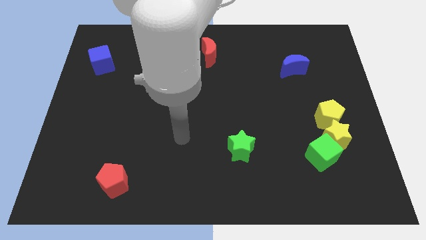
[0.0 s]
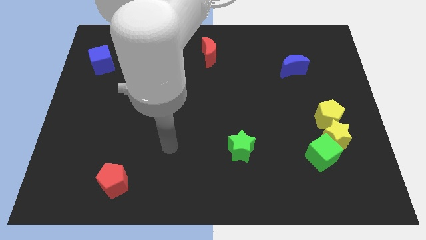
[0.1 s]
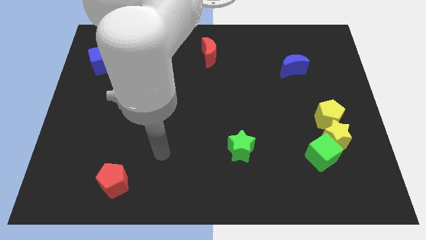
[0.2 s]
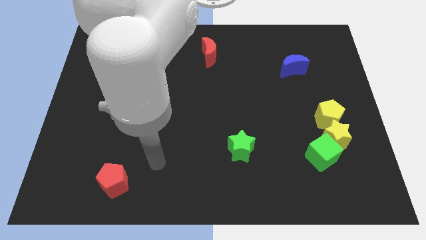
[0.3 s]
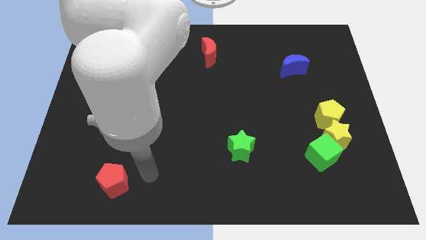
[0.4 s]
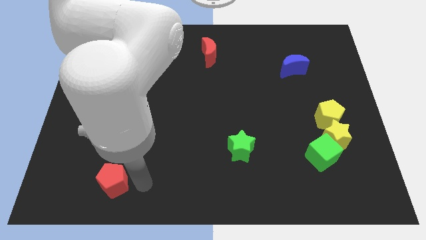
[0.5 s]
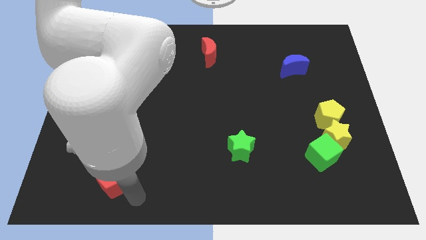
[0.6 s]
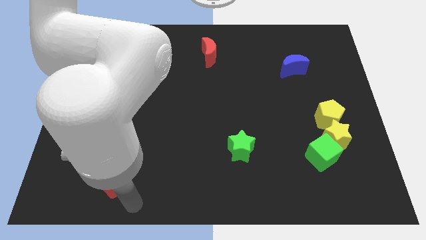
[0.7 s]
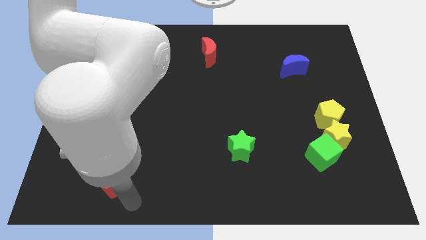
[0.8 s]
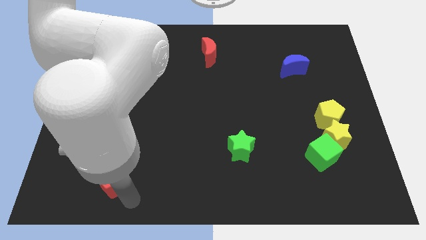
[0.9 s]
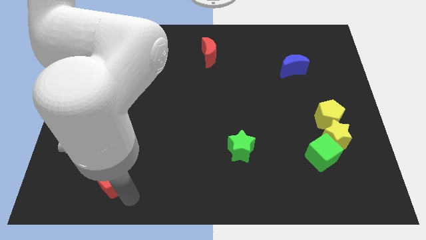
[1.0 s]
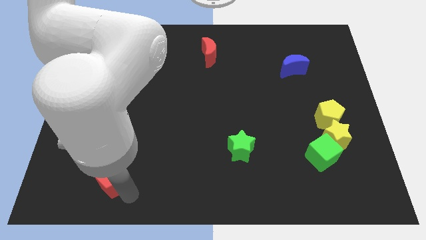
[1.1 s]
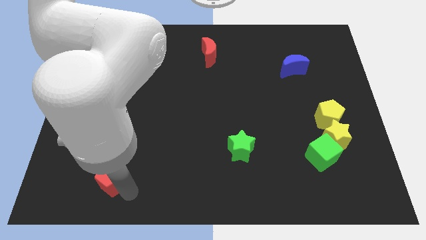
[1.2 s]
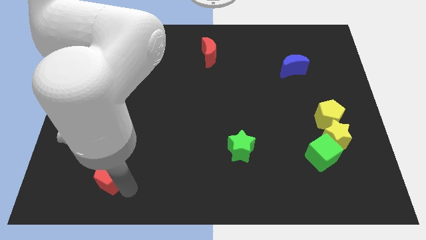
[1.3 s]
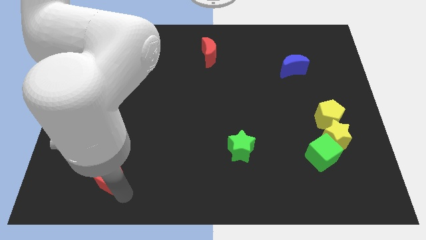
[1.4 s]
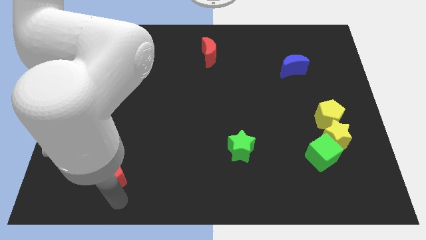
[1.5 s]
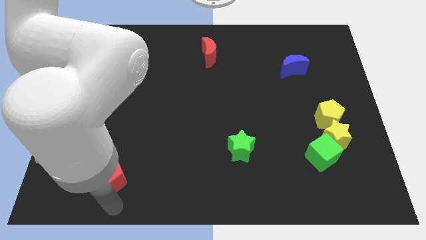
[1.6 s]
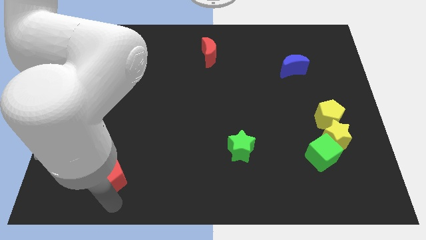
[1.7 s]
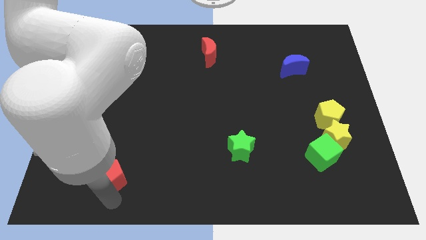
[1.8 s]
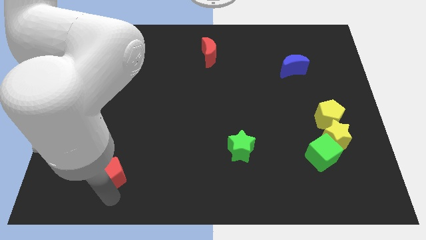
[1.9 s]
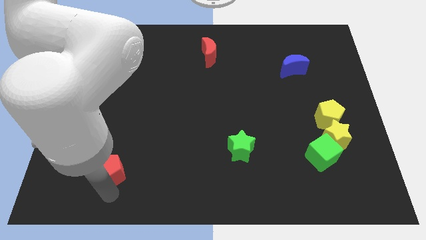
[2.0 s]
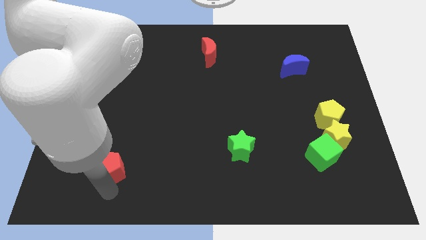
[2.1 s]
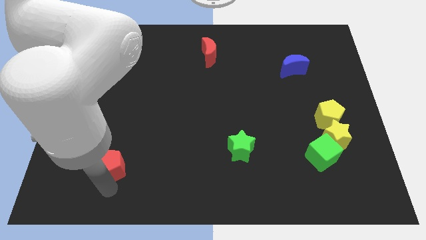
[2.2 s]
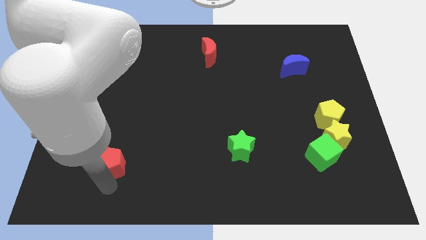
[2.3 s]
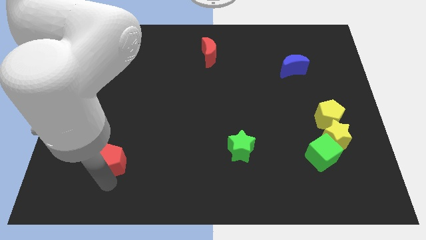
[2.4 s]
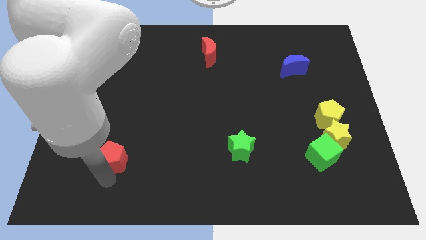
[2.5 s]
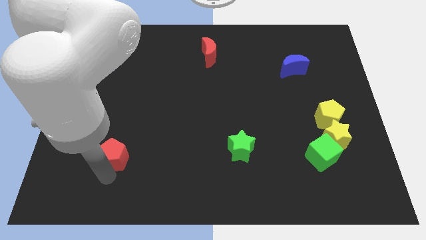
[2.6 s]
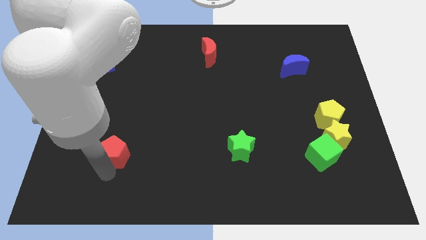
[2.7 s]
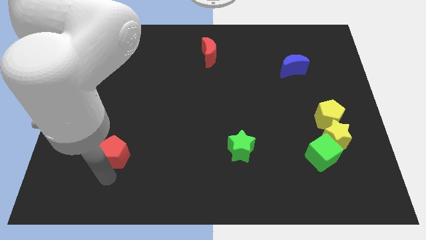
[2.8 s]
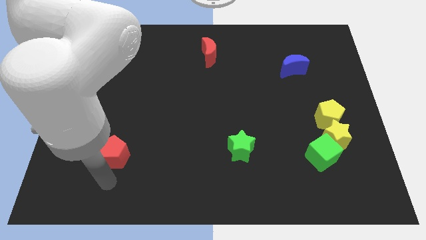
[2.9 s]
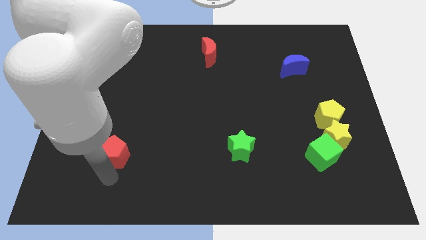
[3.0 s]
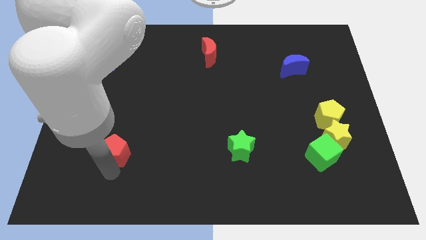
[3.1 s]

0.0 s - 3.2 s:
slightly push the red pentagon up

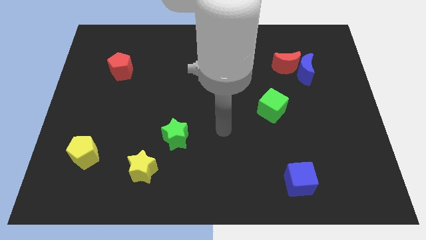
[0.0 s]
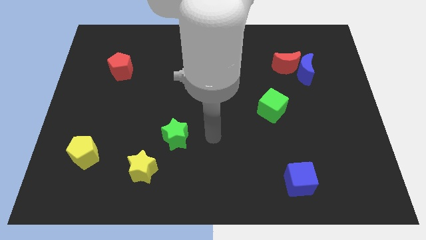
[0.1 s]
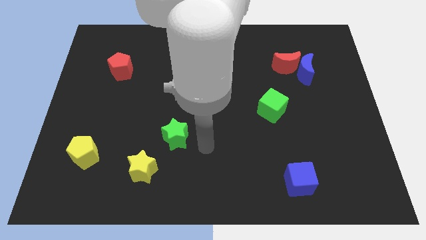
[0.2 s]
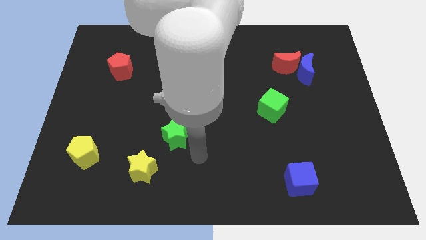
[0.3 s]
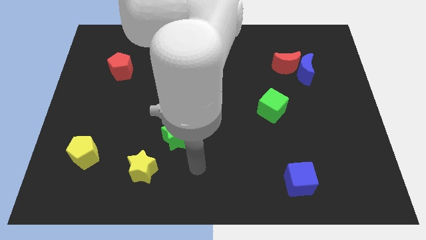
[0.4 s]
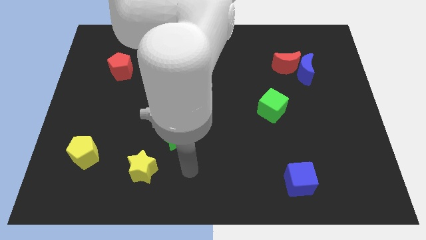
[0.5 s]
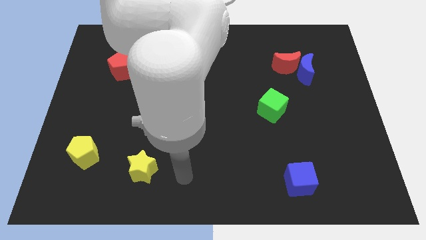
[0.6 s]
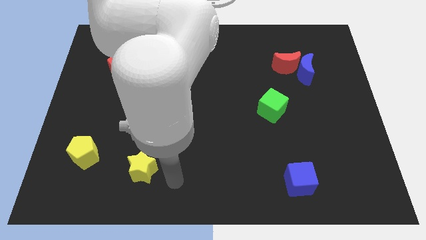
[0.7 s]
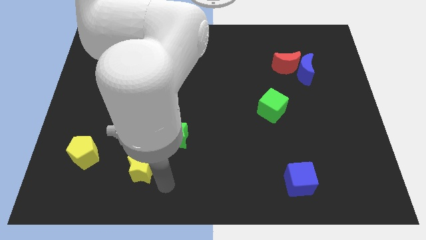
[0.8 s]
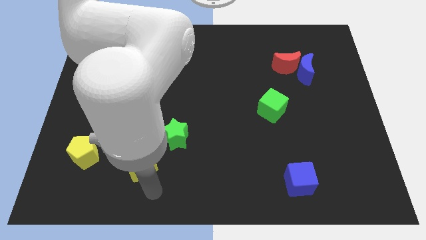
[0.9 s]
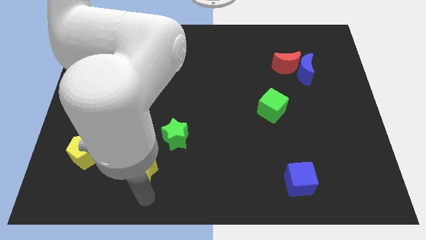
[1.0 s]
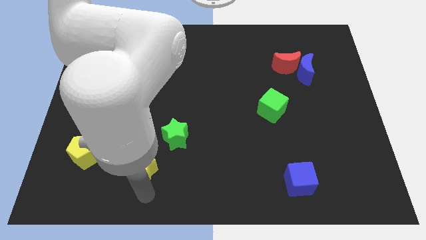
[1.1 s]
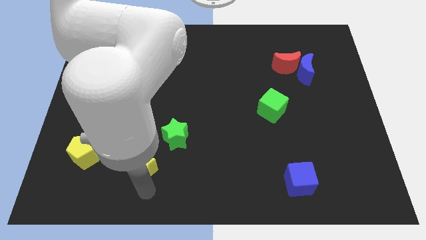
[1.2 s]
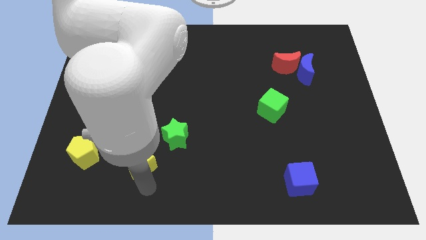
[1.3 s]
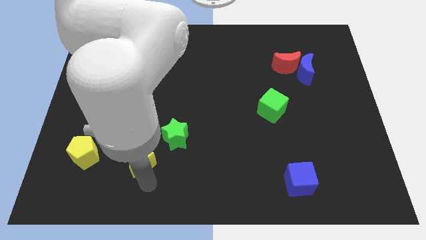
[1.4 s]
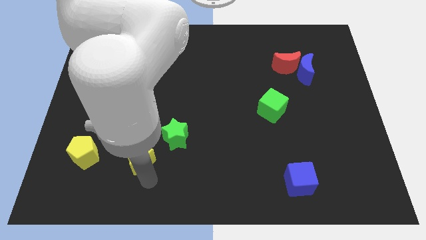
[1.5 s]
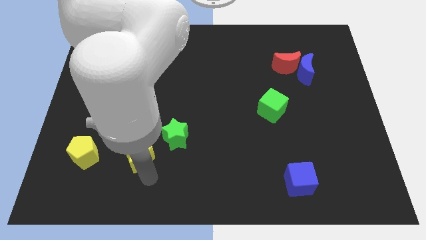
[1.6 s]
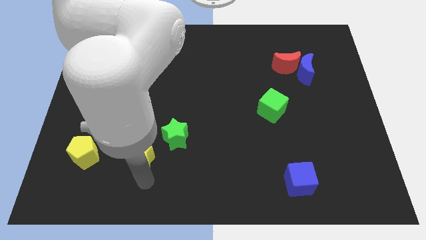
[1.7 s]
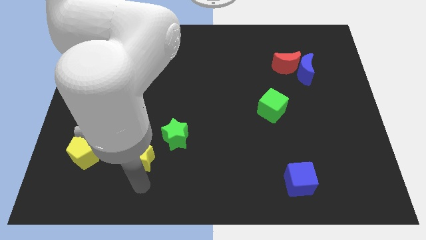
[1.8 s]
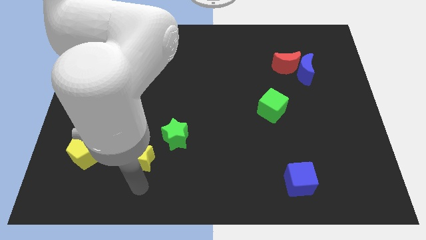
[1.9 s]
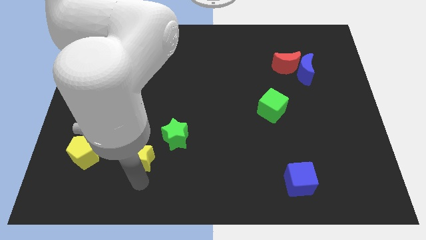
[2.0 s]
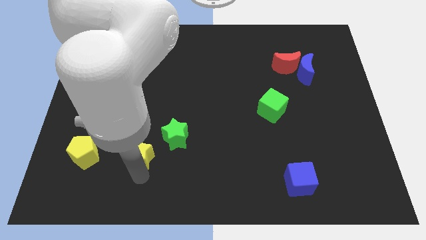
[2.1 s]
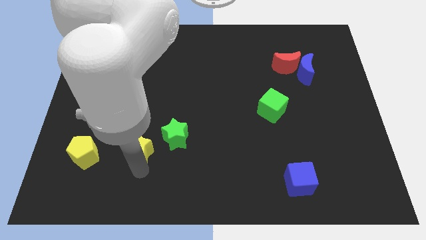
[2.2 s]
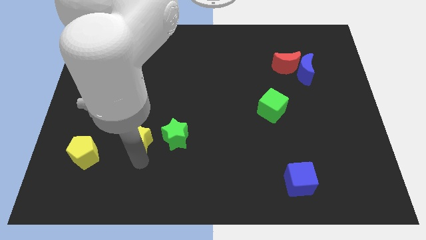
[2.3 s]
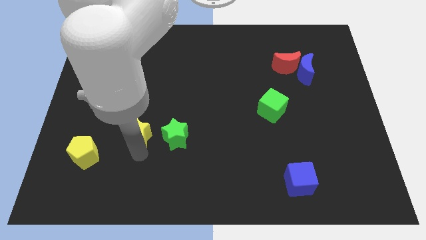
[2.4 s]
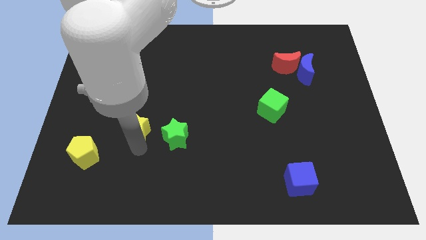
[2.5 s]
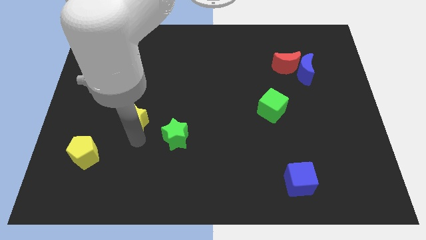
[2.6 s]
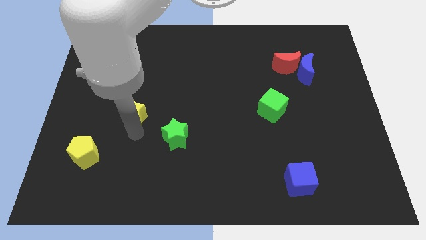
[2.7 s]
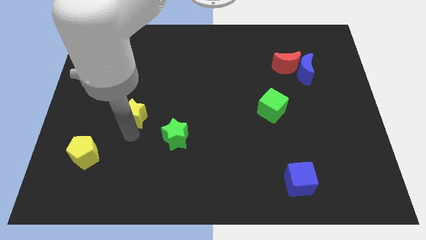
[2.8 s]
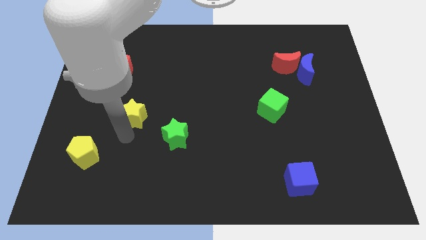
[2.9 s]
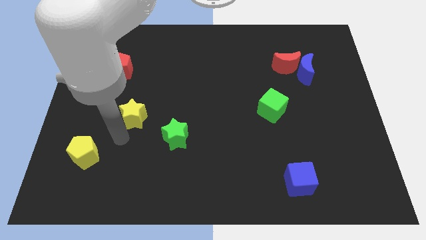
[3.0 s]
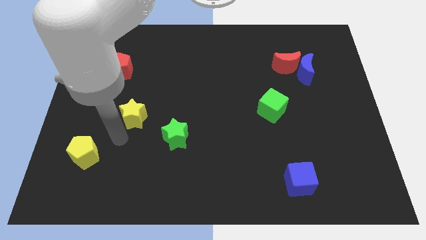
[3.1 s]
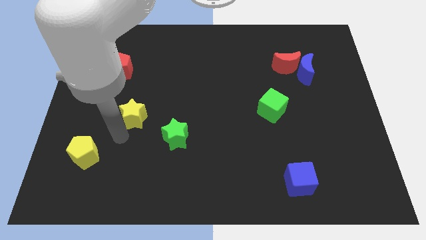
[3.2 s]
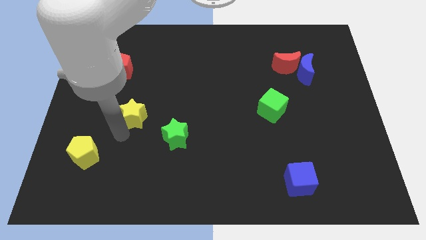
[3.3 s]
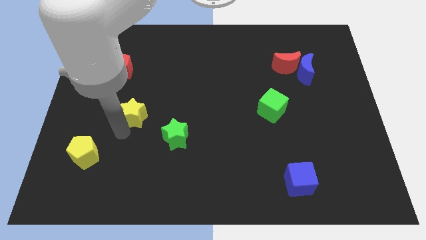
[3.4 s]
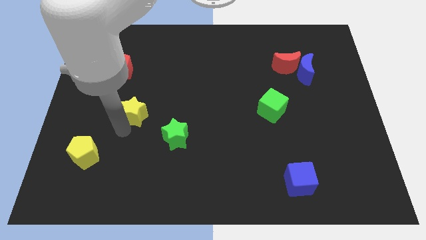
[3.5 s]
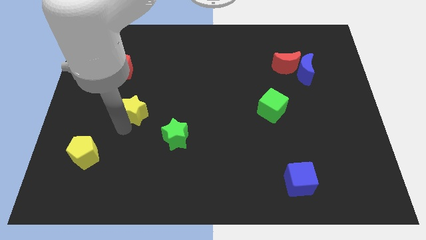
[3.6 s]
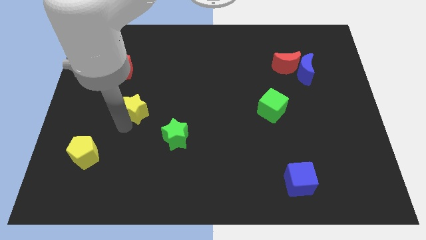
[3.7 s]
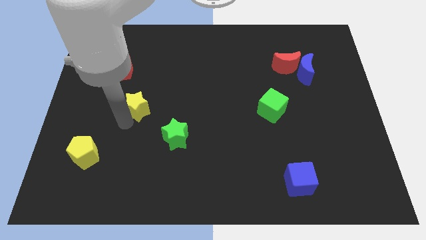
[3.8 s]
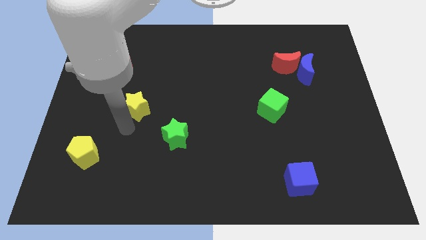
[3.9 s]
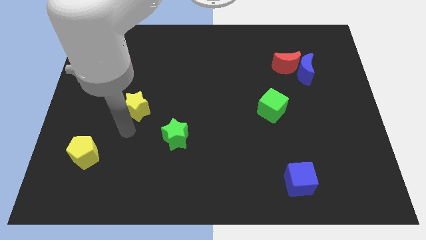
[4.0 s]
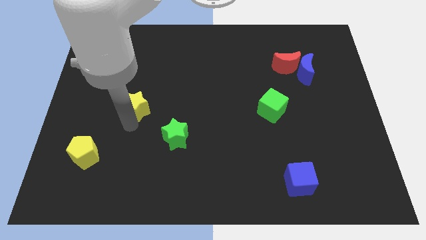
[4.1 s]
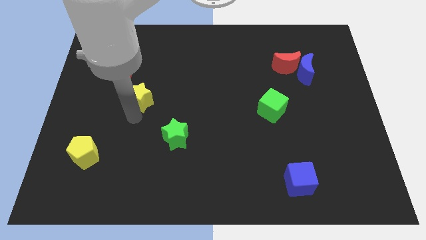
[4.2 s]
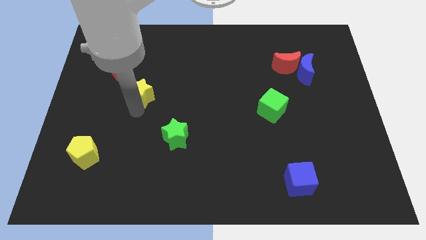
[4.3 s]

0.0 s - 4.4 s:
move the yellow star up

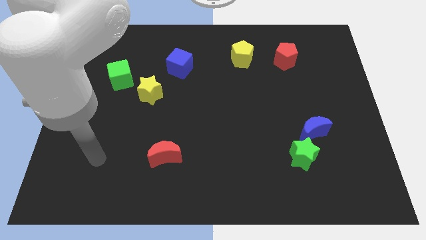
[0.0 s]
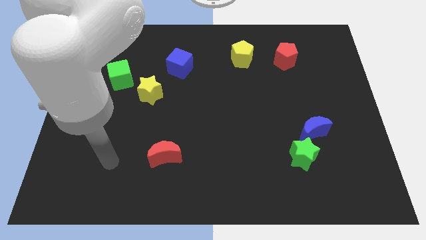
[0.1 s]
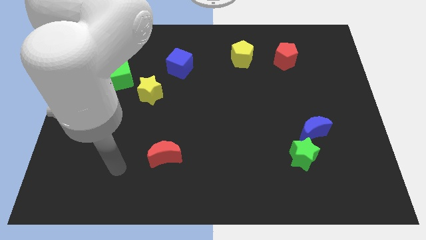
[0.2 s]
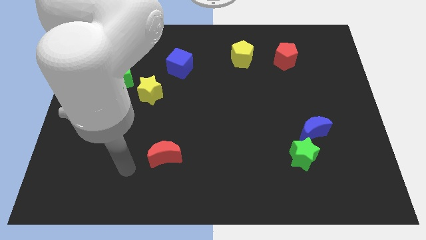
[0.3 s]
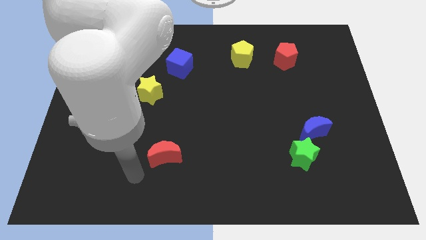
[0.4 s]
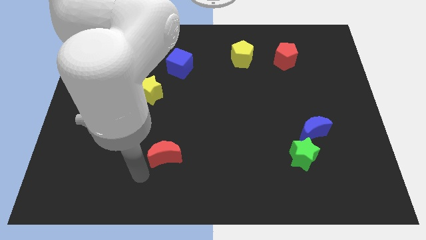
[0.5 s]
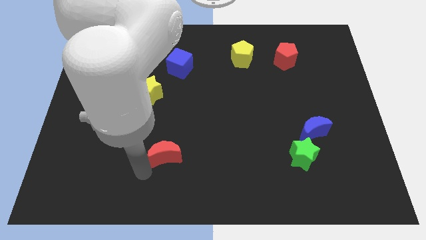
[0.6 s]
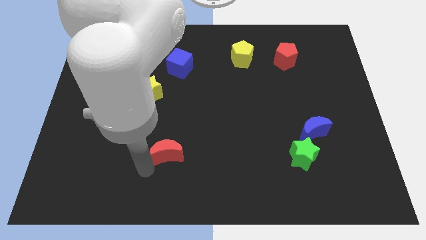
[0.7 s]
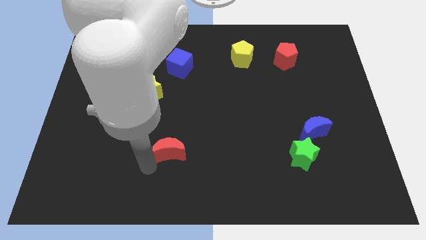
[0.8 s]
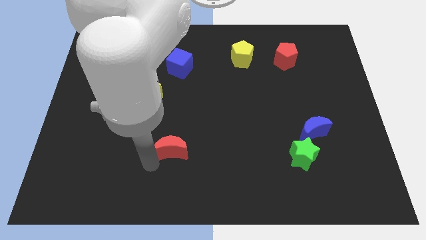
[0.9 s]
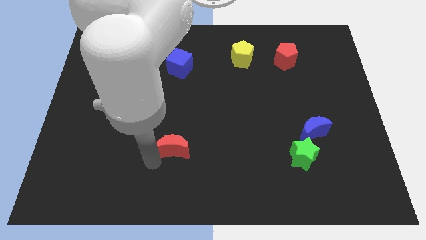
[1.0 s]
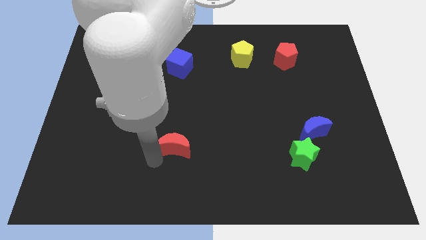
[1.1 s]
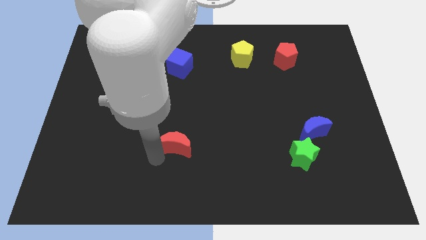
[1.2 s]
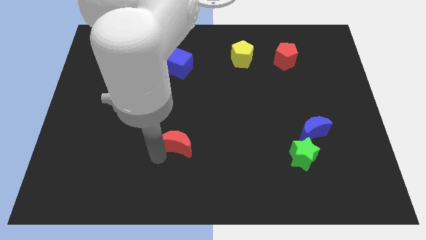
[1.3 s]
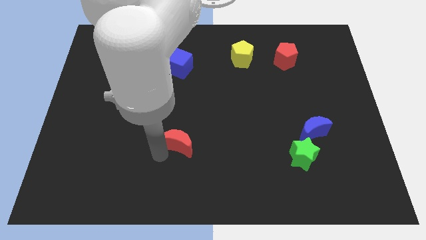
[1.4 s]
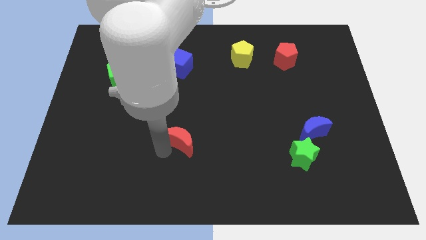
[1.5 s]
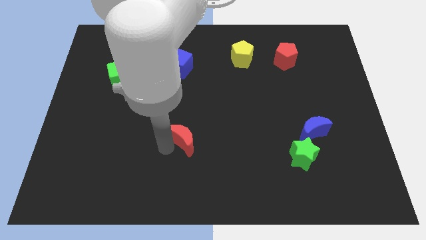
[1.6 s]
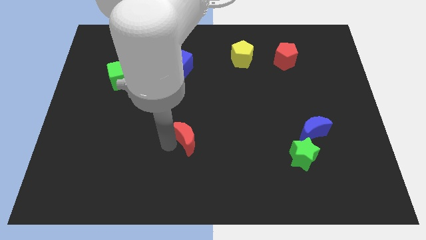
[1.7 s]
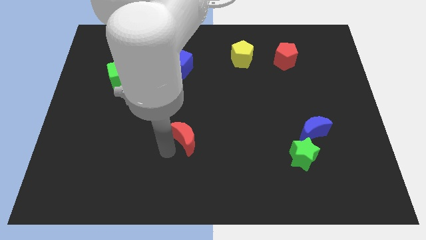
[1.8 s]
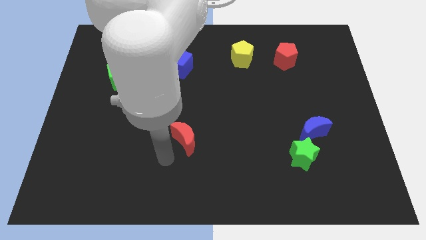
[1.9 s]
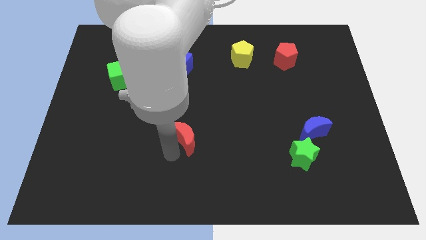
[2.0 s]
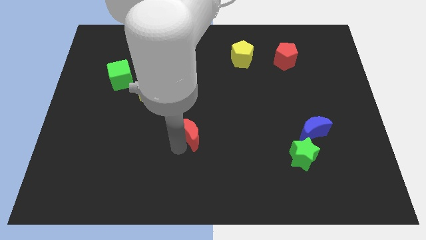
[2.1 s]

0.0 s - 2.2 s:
move the red moon upwards and right somewhat
